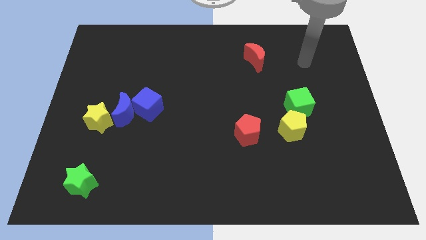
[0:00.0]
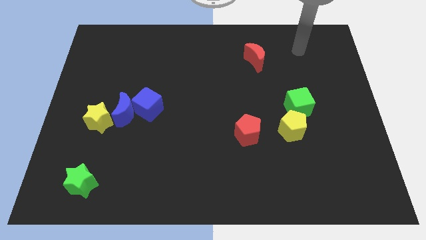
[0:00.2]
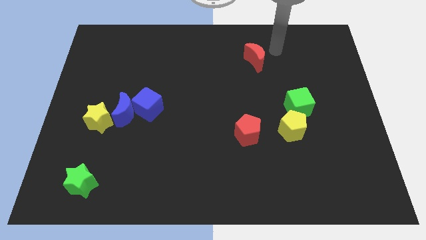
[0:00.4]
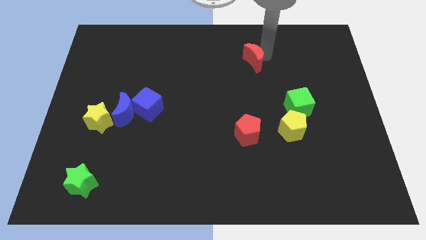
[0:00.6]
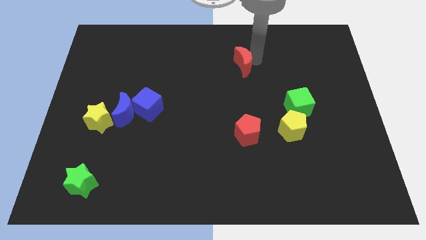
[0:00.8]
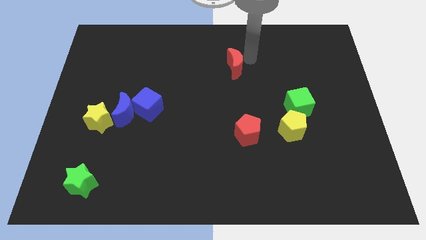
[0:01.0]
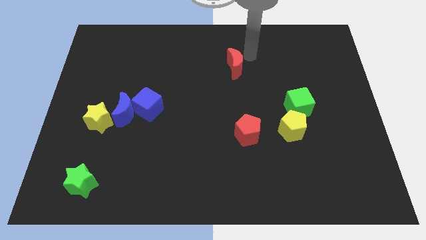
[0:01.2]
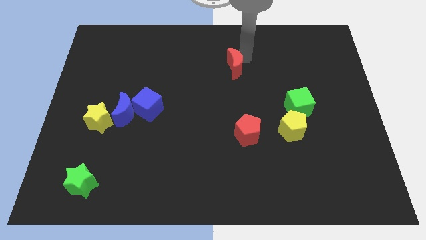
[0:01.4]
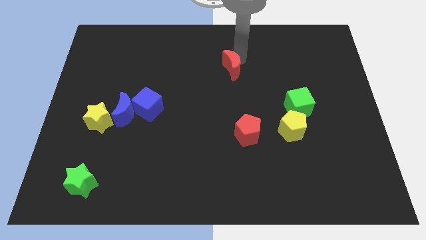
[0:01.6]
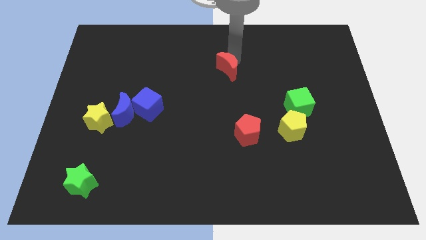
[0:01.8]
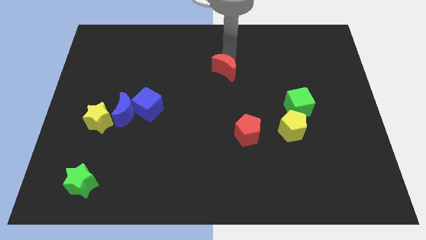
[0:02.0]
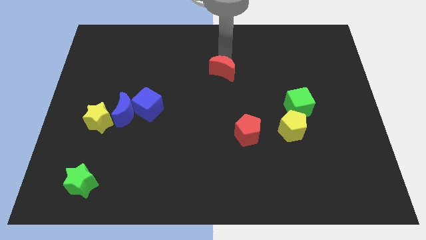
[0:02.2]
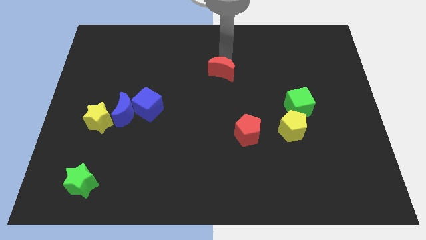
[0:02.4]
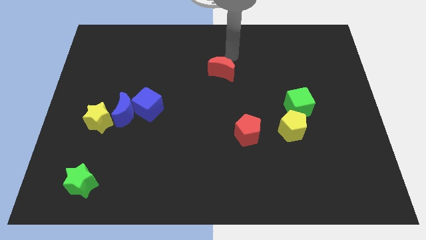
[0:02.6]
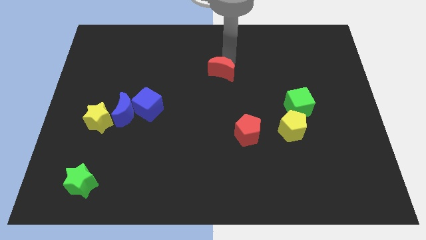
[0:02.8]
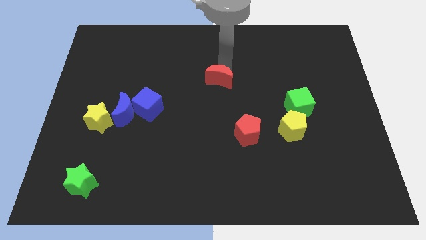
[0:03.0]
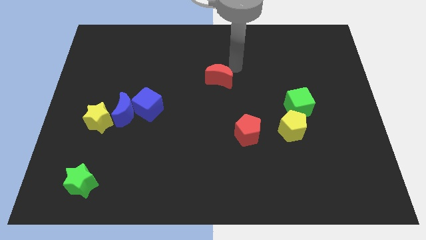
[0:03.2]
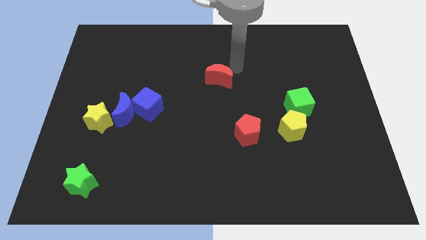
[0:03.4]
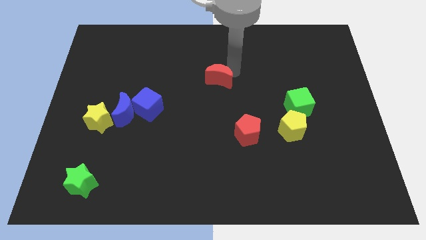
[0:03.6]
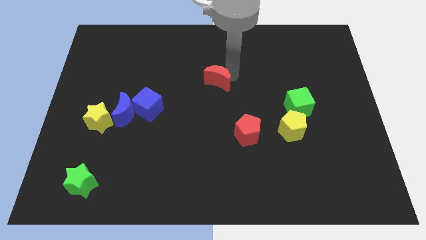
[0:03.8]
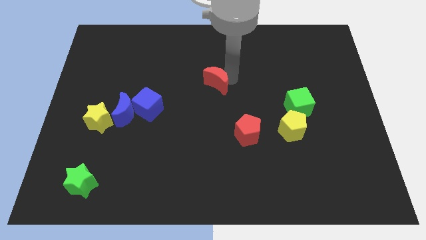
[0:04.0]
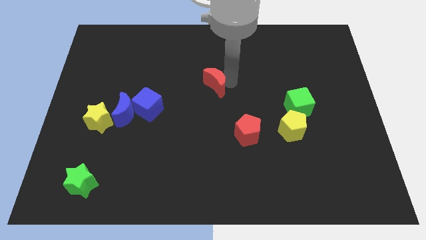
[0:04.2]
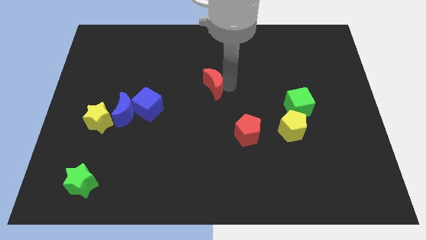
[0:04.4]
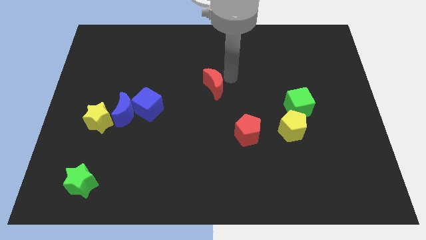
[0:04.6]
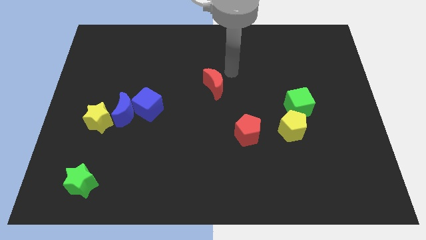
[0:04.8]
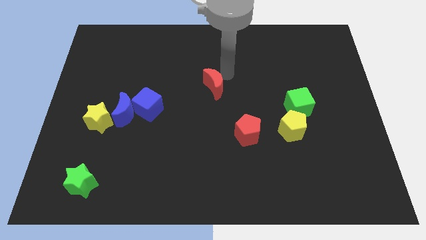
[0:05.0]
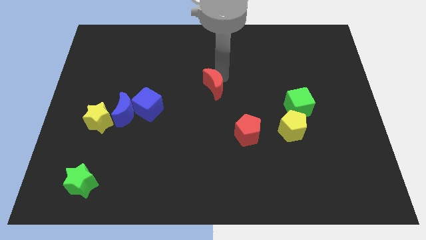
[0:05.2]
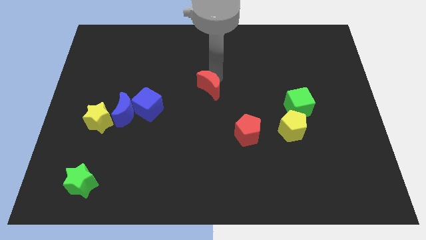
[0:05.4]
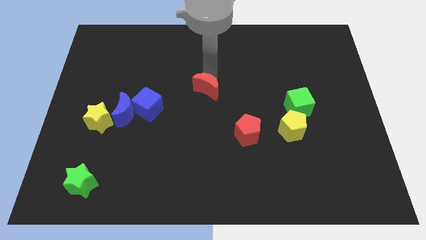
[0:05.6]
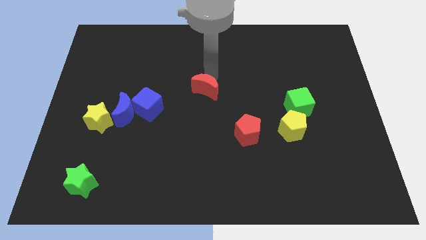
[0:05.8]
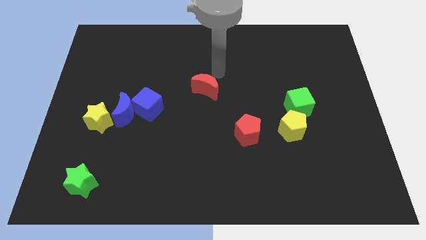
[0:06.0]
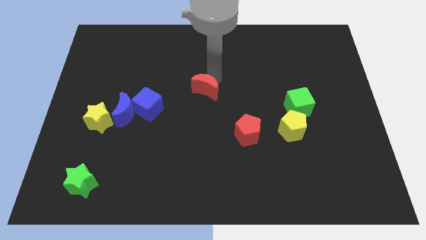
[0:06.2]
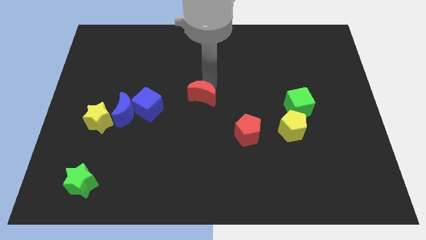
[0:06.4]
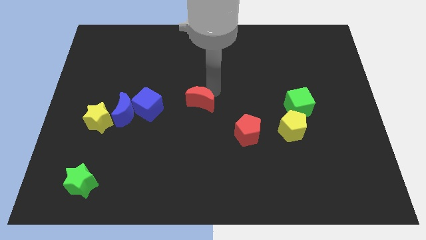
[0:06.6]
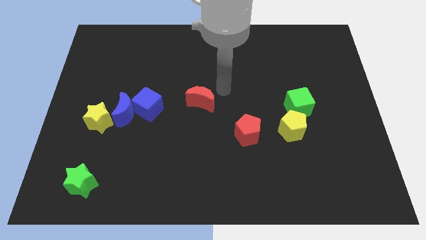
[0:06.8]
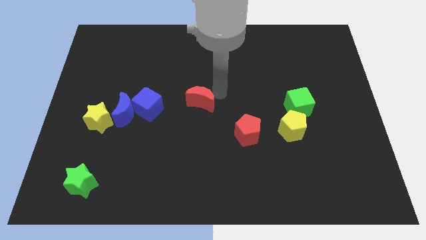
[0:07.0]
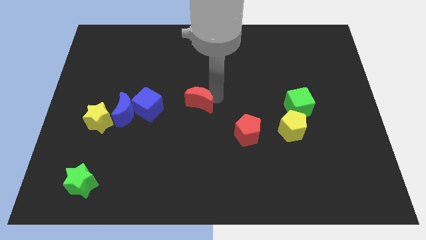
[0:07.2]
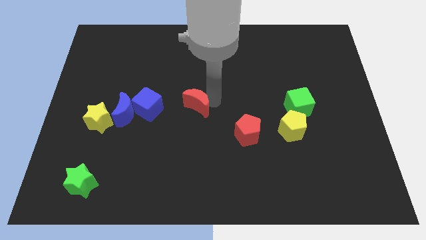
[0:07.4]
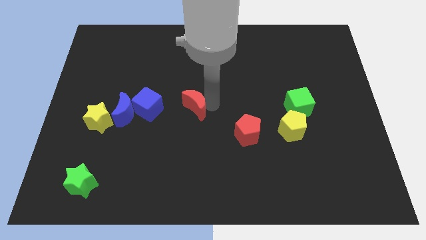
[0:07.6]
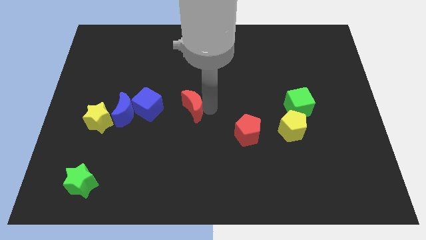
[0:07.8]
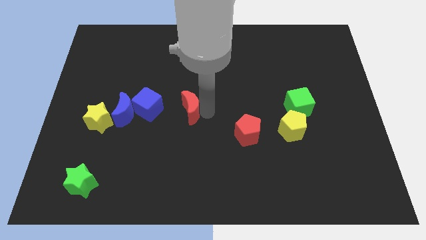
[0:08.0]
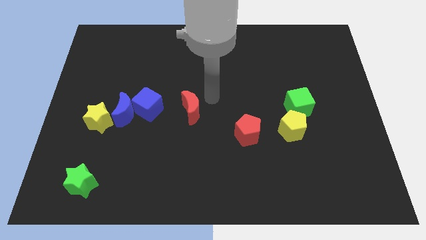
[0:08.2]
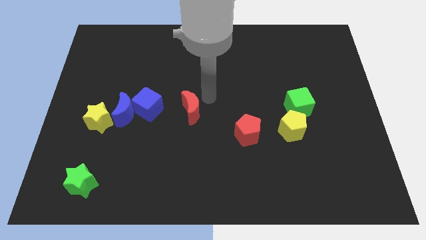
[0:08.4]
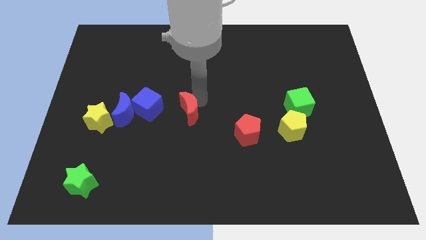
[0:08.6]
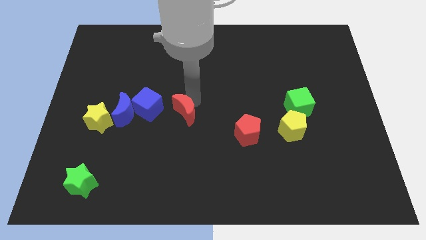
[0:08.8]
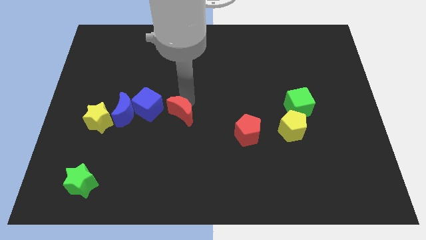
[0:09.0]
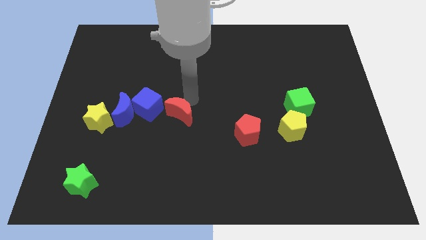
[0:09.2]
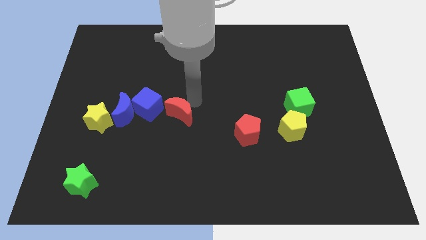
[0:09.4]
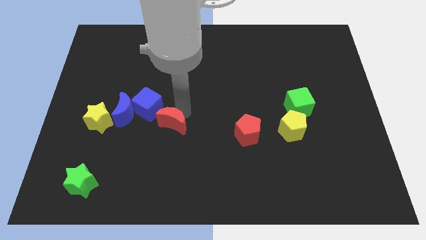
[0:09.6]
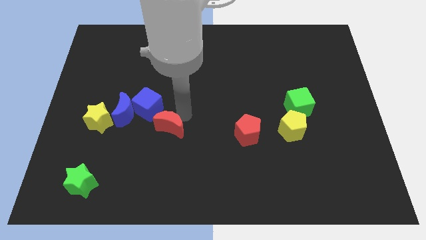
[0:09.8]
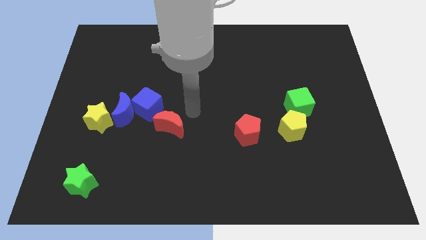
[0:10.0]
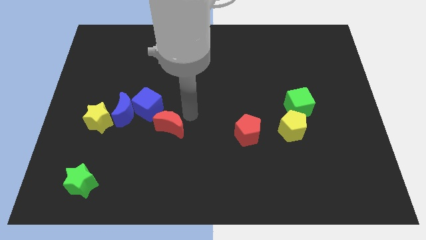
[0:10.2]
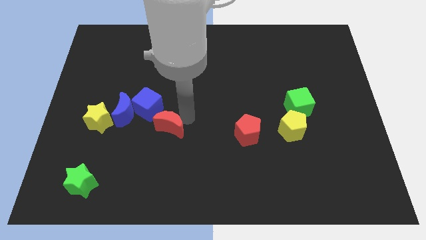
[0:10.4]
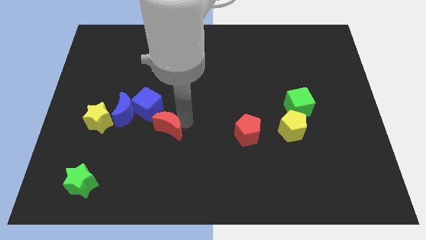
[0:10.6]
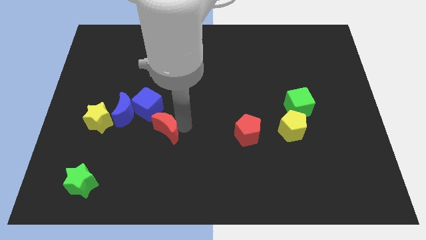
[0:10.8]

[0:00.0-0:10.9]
move the red moon to the bottom of the blue cube

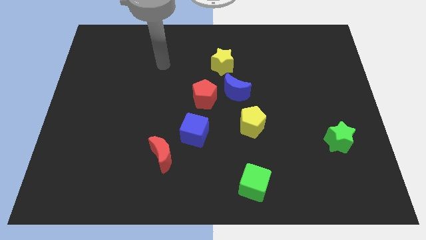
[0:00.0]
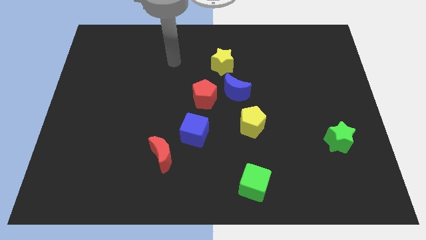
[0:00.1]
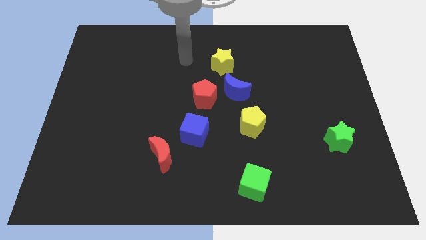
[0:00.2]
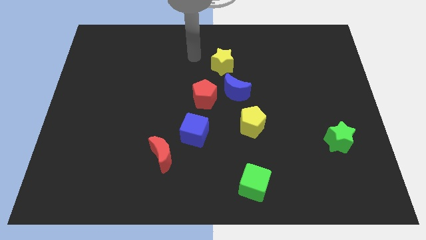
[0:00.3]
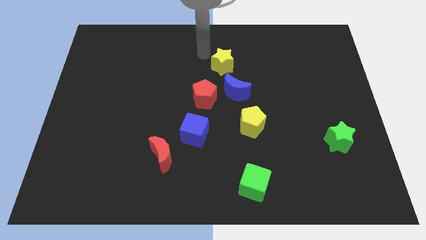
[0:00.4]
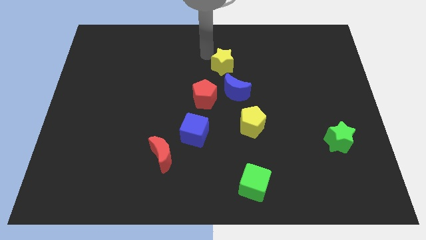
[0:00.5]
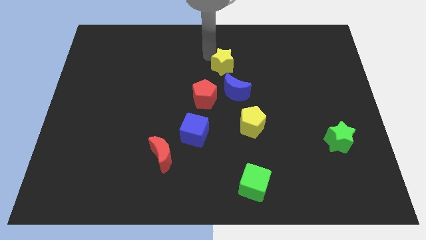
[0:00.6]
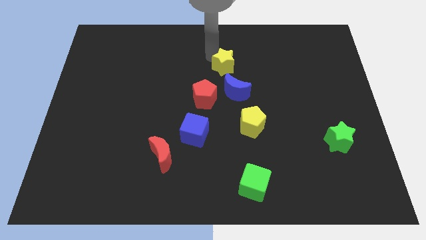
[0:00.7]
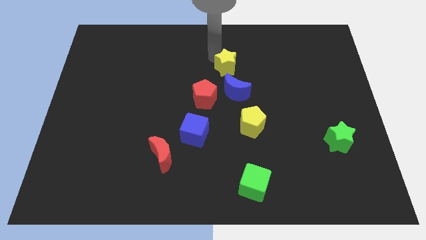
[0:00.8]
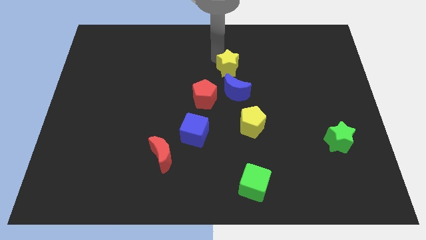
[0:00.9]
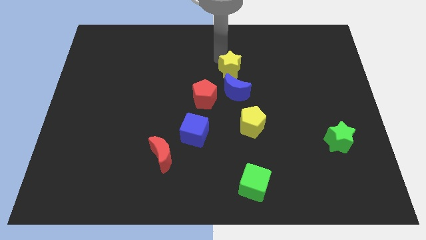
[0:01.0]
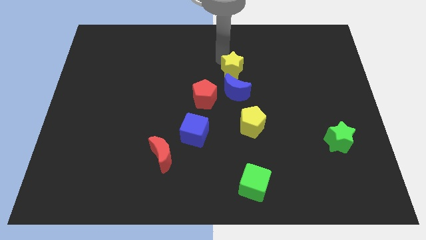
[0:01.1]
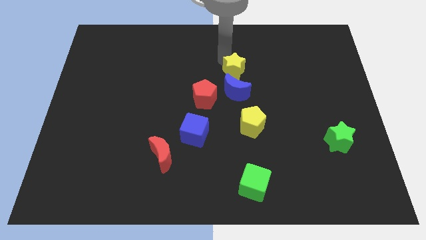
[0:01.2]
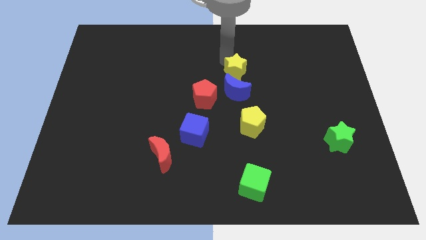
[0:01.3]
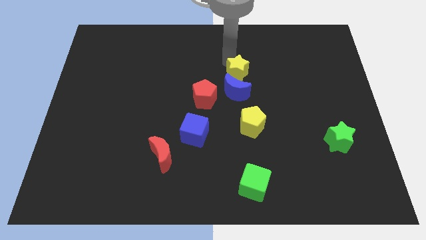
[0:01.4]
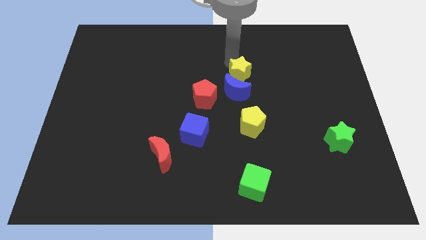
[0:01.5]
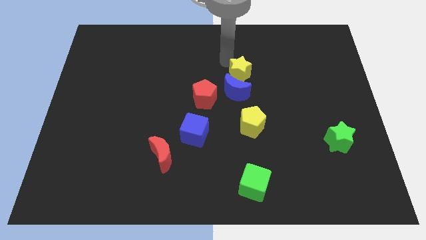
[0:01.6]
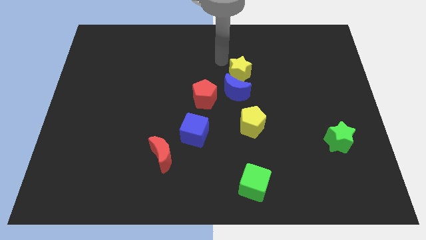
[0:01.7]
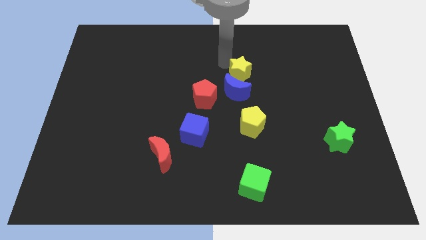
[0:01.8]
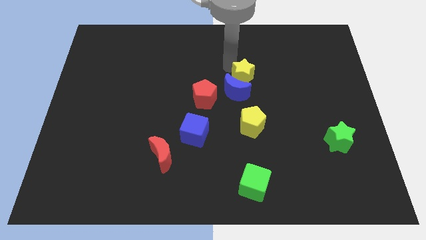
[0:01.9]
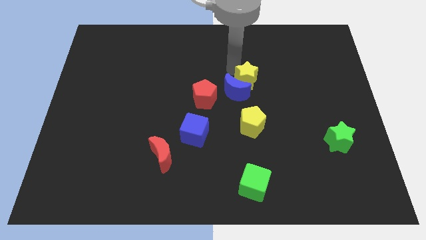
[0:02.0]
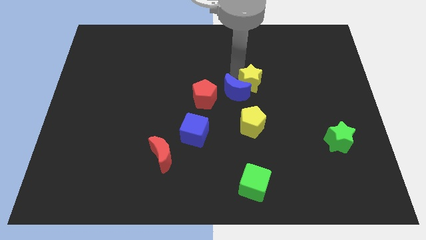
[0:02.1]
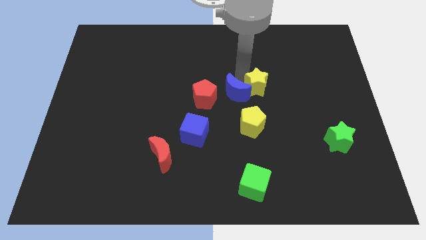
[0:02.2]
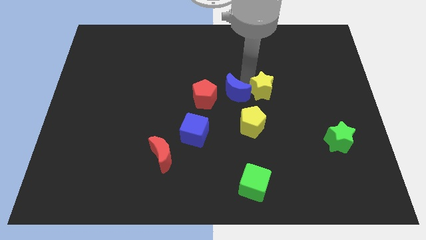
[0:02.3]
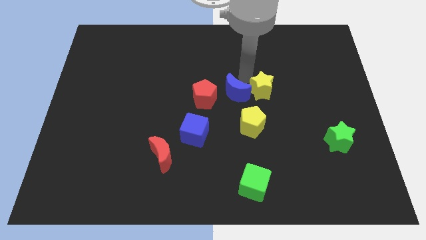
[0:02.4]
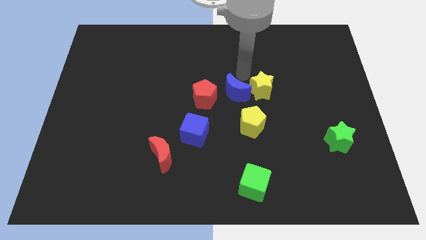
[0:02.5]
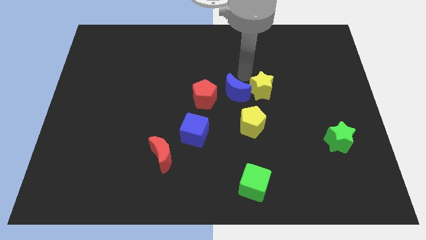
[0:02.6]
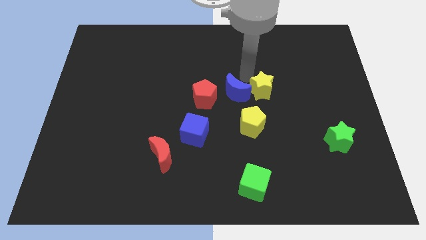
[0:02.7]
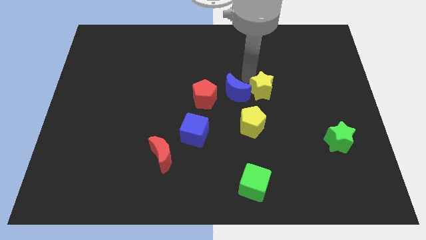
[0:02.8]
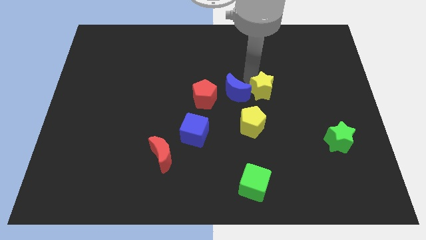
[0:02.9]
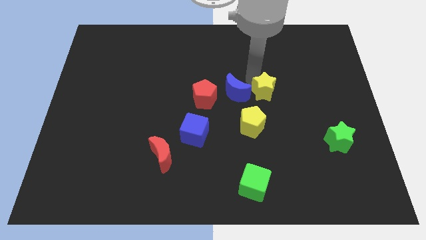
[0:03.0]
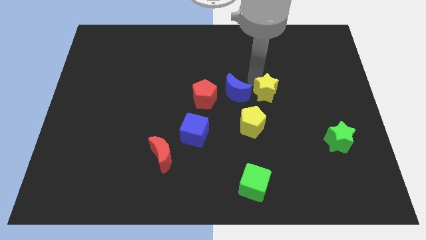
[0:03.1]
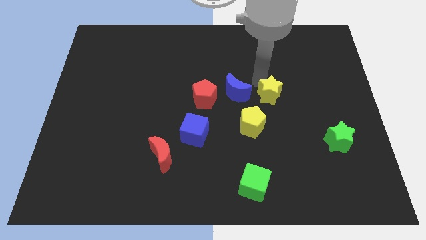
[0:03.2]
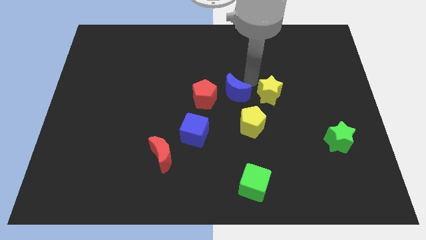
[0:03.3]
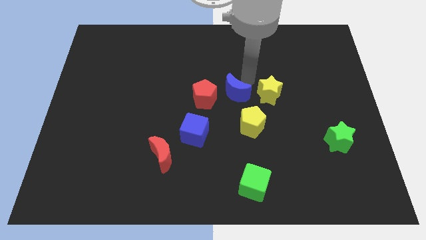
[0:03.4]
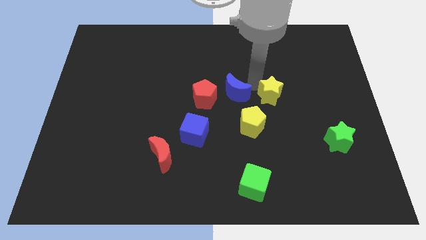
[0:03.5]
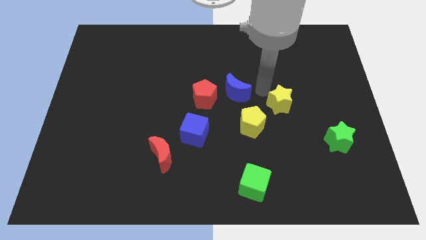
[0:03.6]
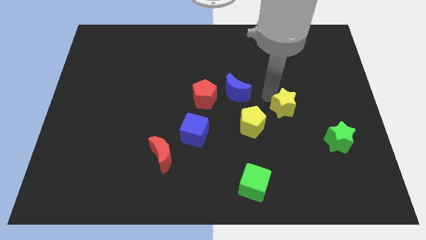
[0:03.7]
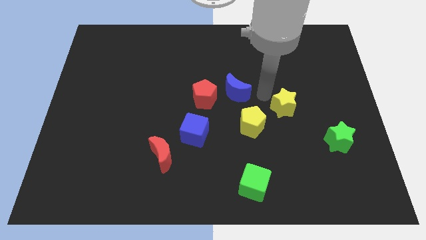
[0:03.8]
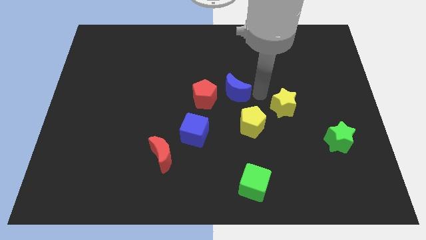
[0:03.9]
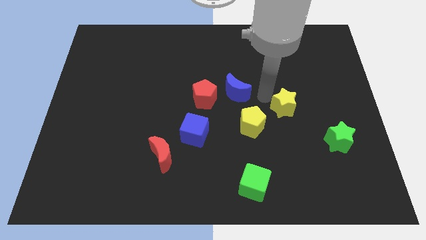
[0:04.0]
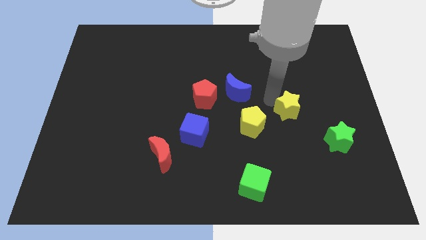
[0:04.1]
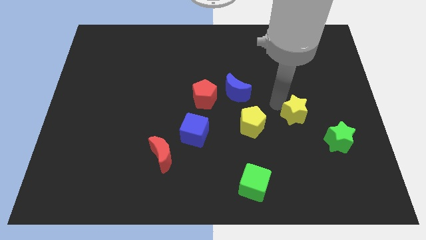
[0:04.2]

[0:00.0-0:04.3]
put the yellow star to the top left side of the green star
